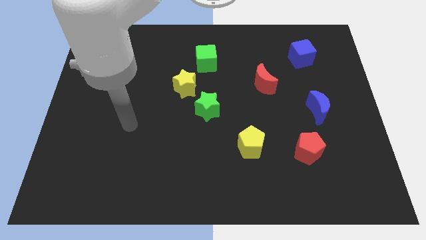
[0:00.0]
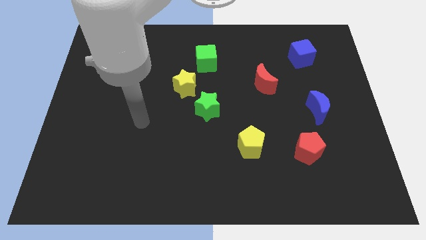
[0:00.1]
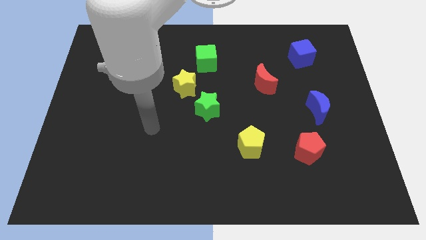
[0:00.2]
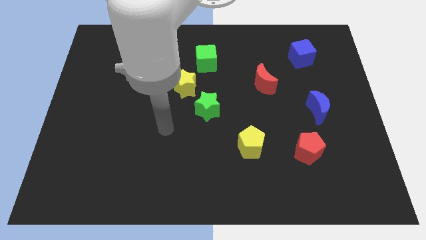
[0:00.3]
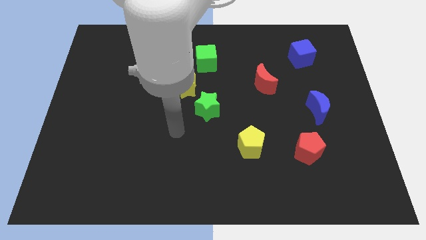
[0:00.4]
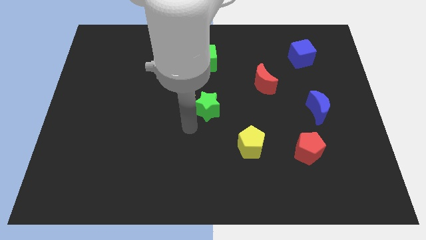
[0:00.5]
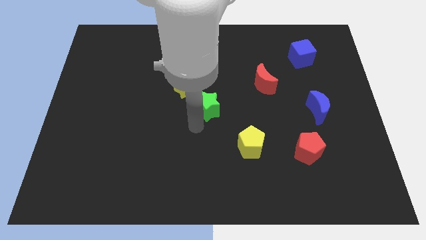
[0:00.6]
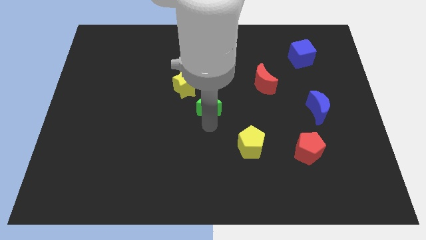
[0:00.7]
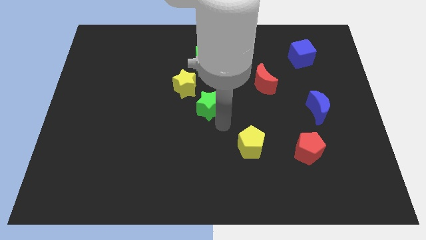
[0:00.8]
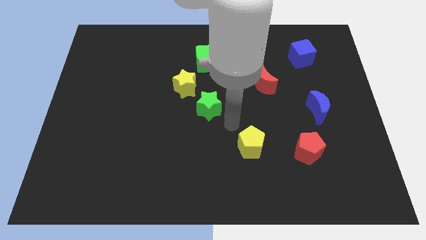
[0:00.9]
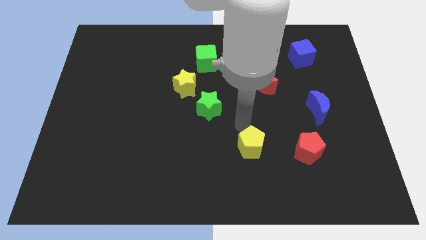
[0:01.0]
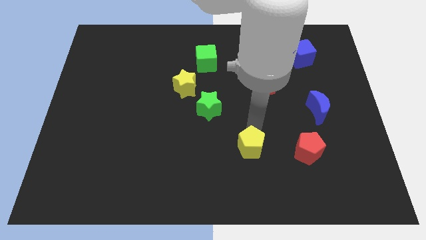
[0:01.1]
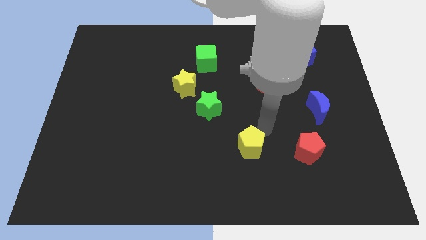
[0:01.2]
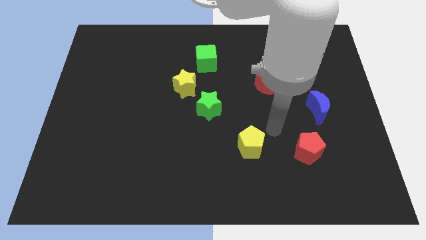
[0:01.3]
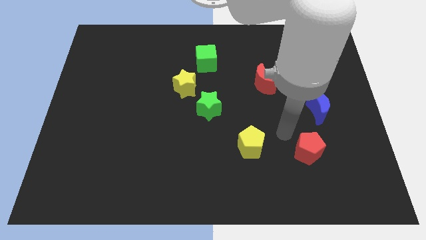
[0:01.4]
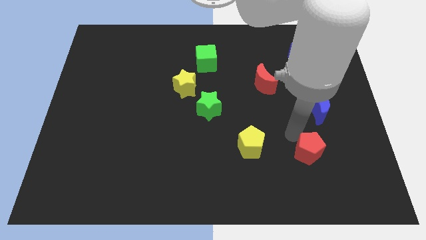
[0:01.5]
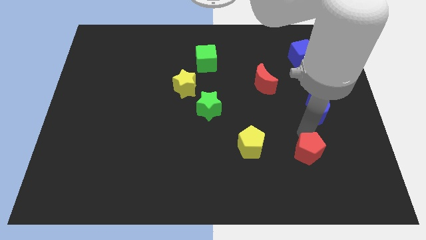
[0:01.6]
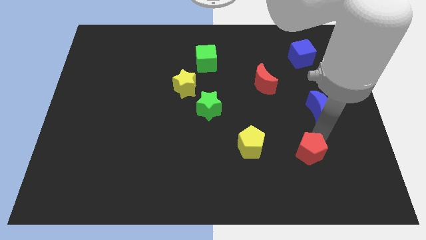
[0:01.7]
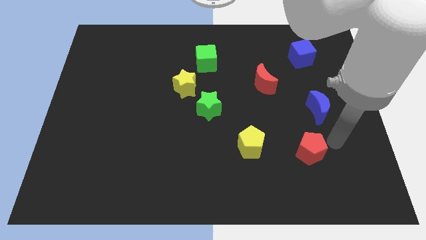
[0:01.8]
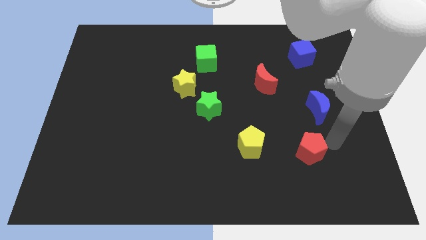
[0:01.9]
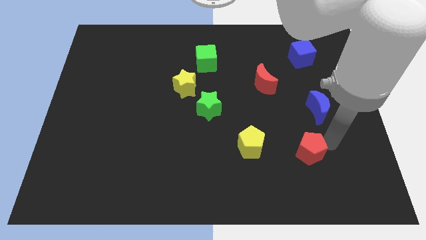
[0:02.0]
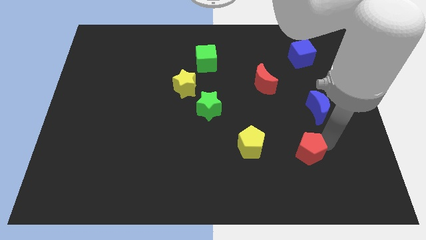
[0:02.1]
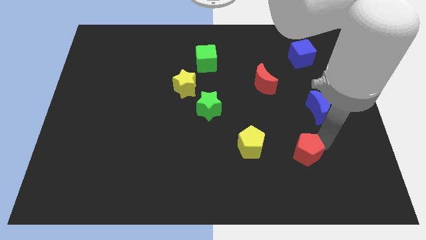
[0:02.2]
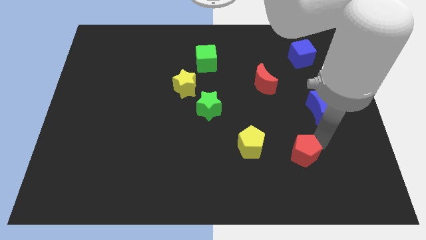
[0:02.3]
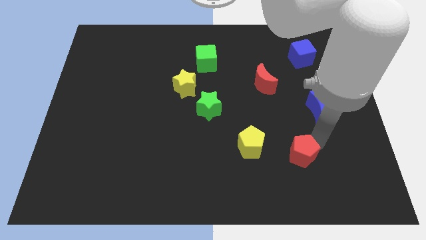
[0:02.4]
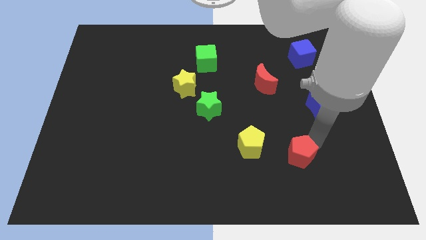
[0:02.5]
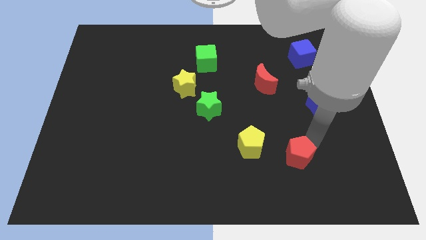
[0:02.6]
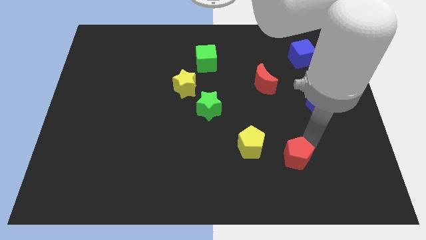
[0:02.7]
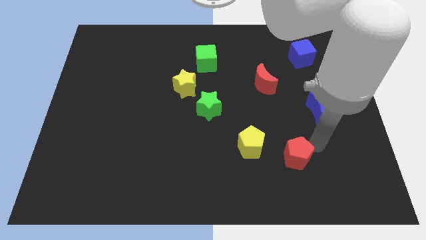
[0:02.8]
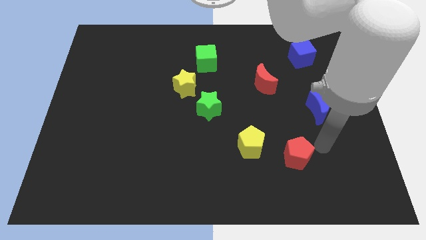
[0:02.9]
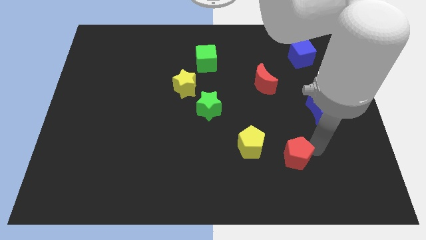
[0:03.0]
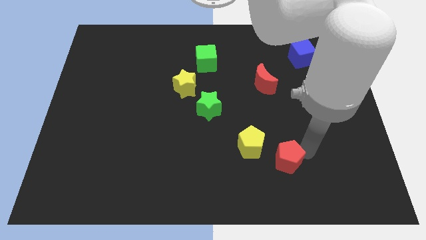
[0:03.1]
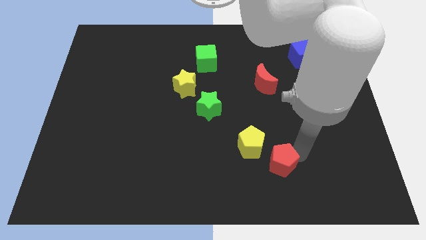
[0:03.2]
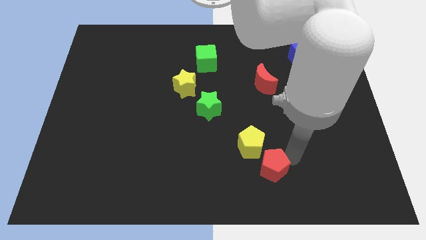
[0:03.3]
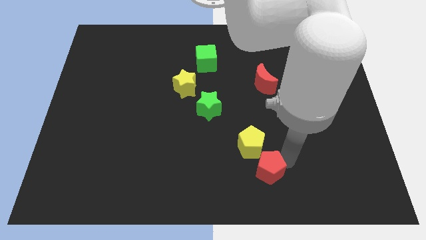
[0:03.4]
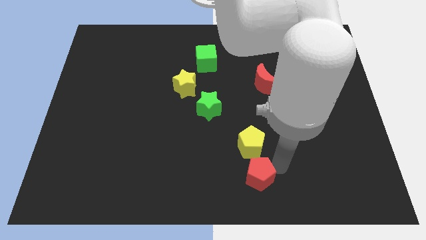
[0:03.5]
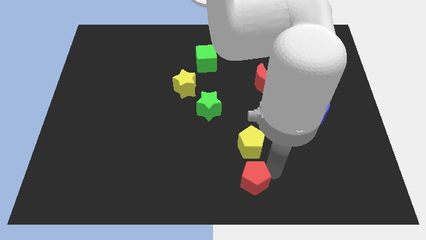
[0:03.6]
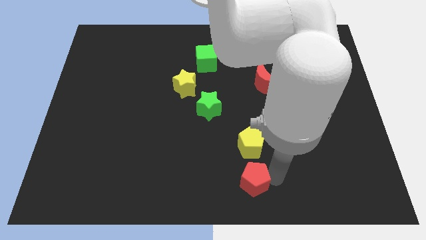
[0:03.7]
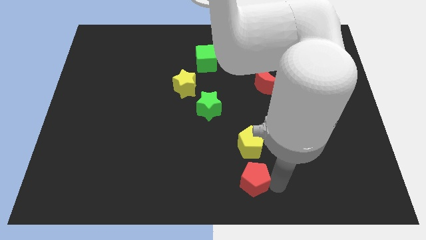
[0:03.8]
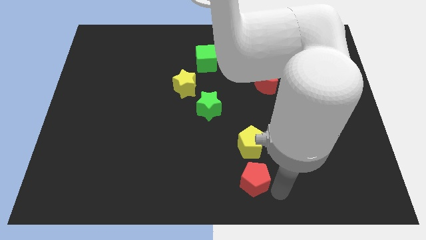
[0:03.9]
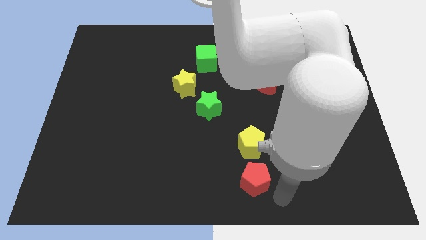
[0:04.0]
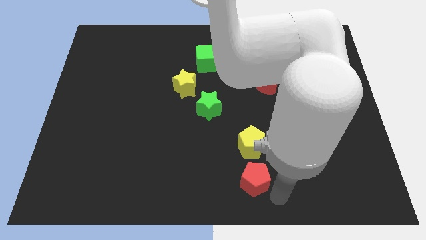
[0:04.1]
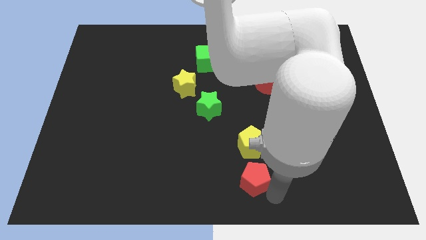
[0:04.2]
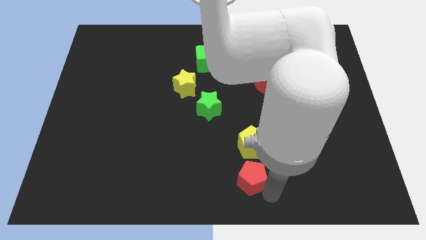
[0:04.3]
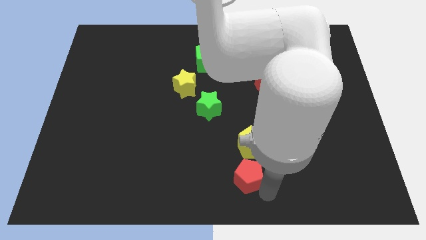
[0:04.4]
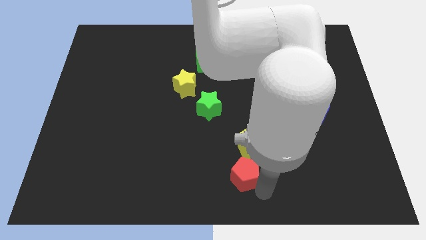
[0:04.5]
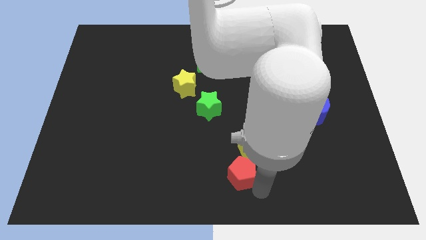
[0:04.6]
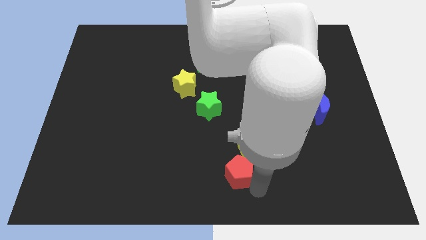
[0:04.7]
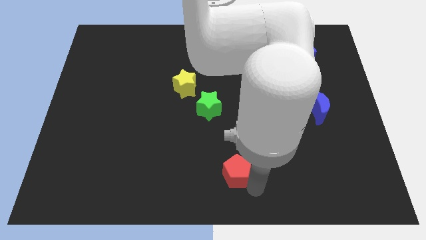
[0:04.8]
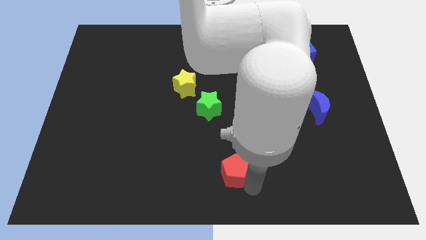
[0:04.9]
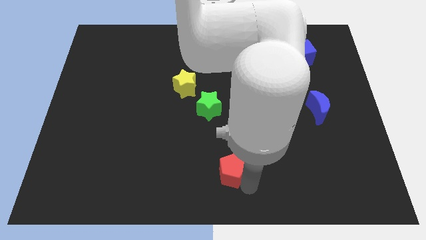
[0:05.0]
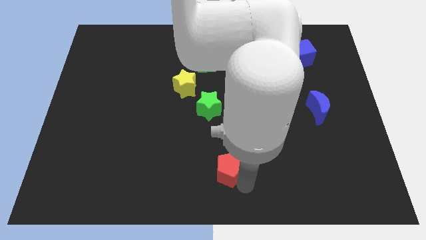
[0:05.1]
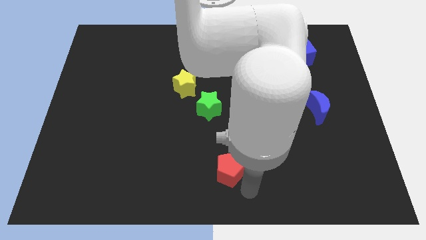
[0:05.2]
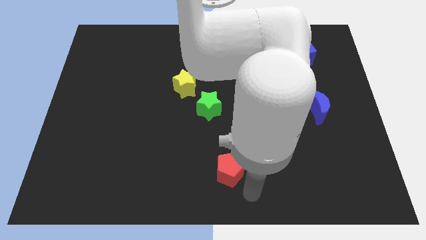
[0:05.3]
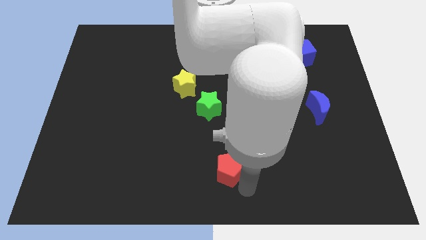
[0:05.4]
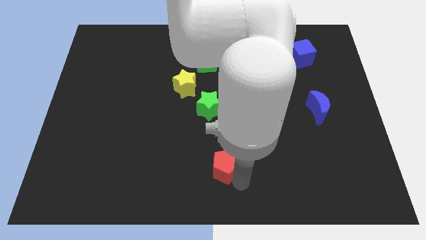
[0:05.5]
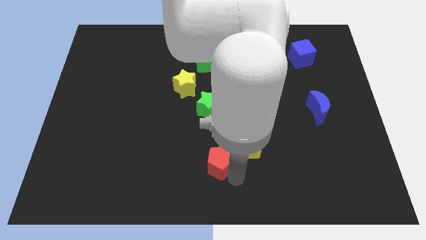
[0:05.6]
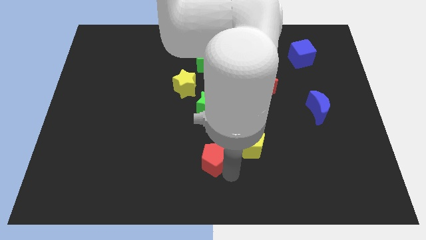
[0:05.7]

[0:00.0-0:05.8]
slide the red pentagon left

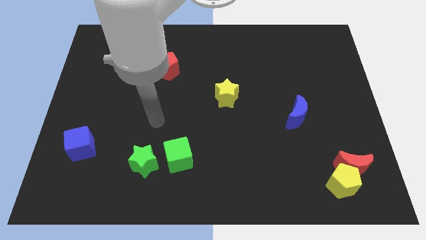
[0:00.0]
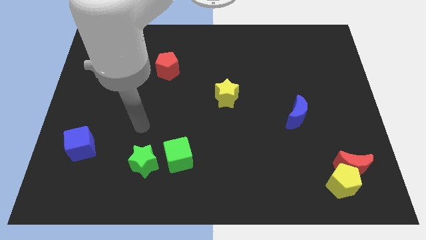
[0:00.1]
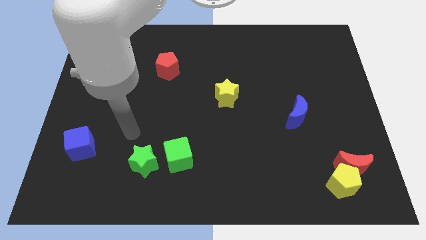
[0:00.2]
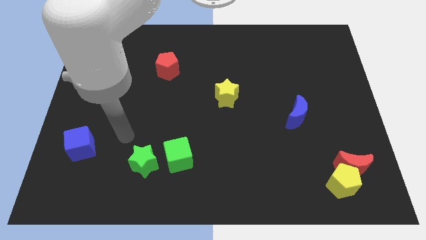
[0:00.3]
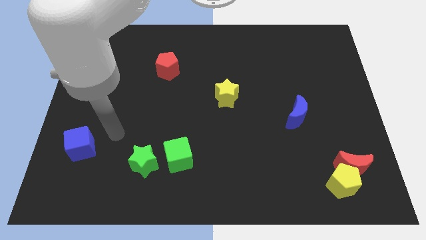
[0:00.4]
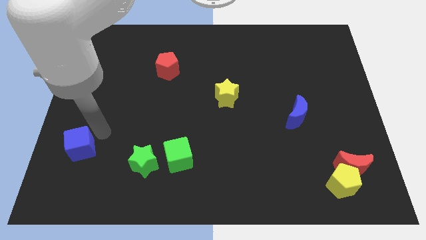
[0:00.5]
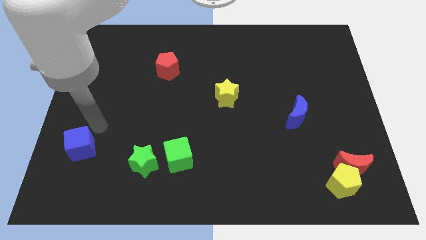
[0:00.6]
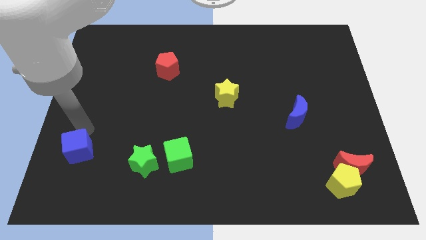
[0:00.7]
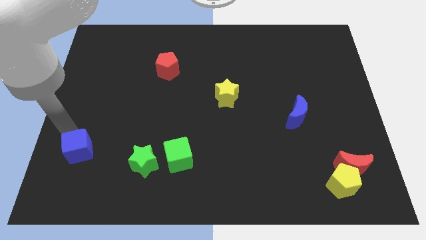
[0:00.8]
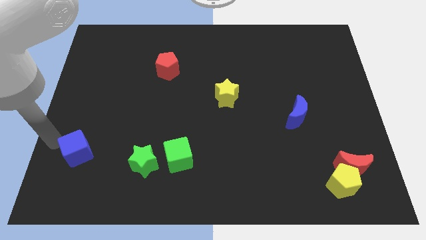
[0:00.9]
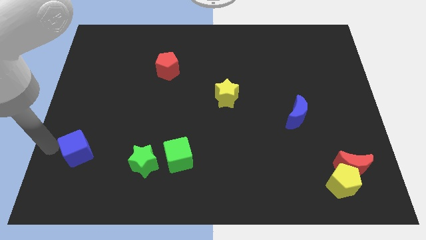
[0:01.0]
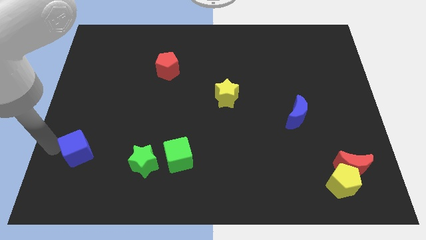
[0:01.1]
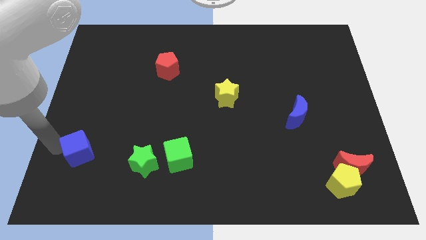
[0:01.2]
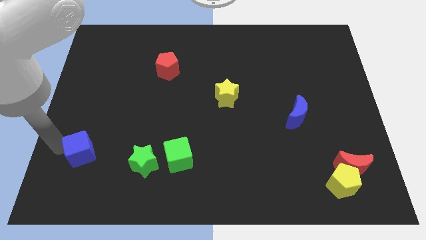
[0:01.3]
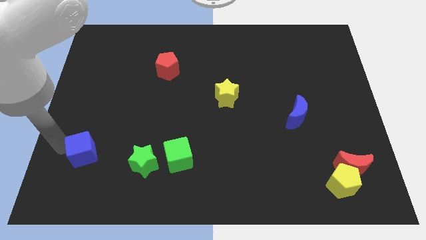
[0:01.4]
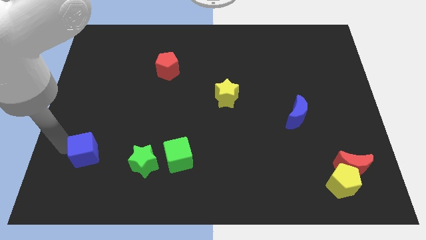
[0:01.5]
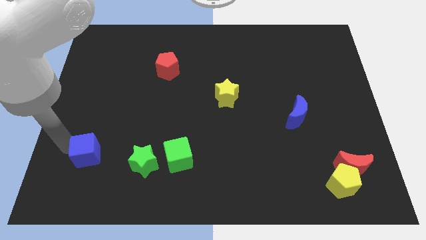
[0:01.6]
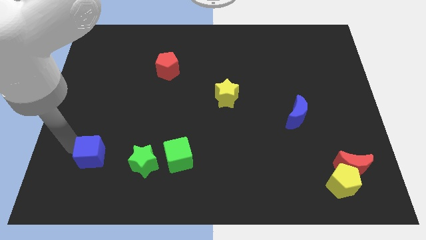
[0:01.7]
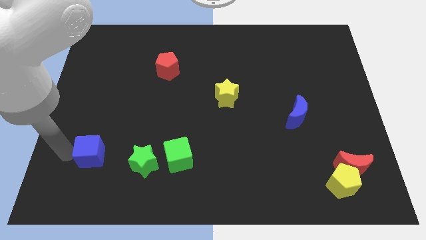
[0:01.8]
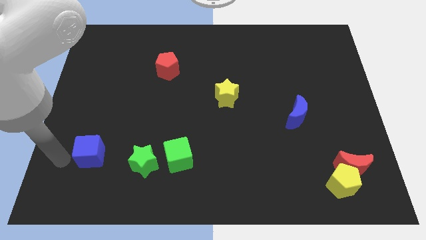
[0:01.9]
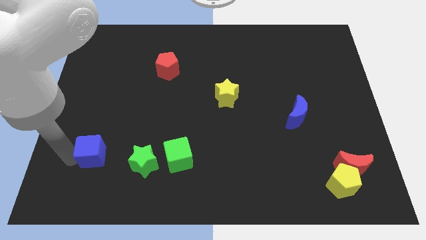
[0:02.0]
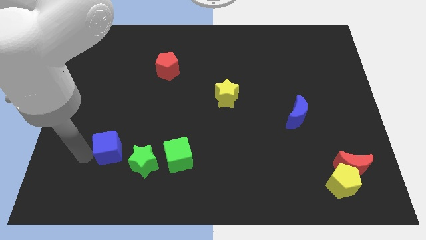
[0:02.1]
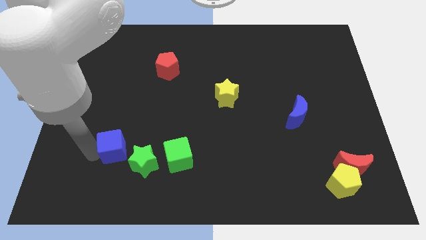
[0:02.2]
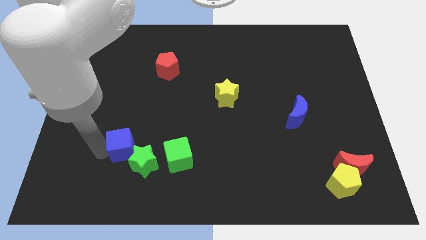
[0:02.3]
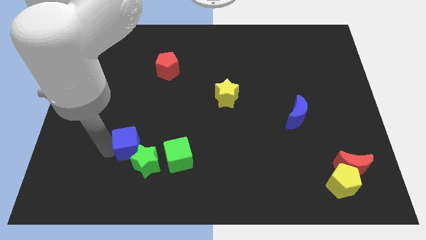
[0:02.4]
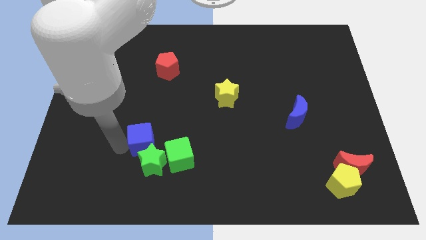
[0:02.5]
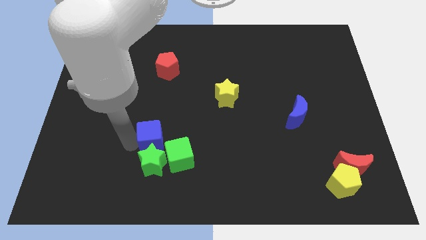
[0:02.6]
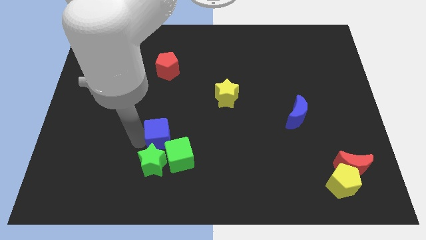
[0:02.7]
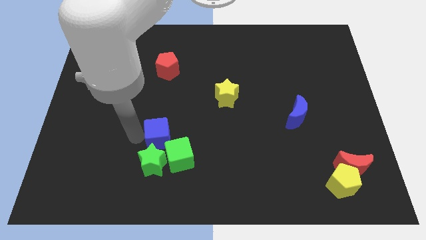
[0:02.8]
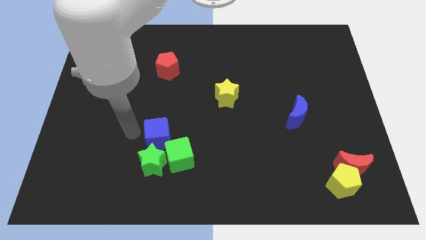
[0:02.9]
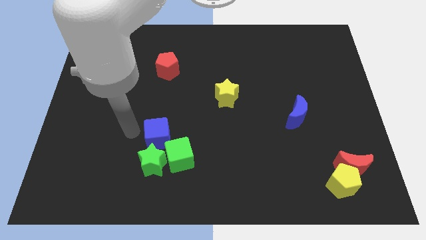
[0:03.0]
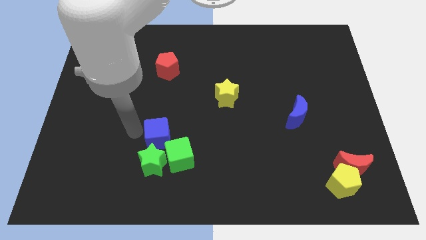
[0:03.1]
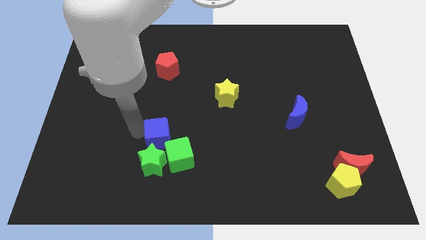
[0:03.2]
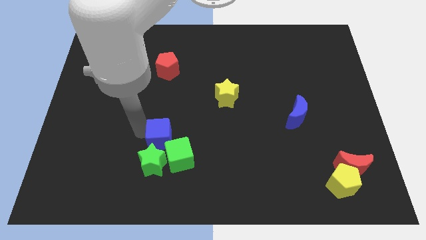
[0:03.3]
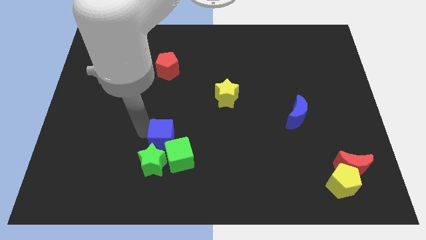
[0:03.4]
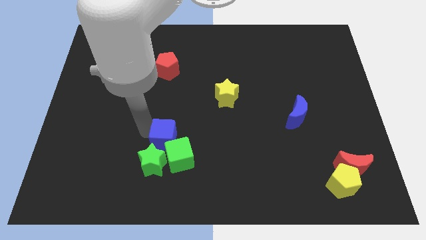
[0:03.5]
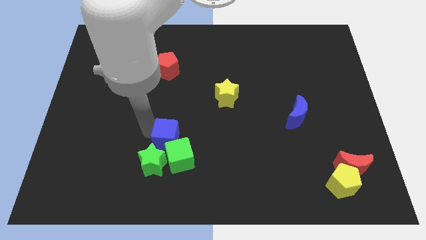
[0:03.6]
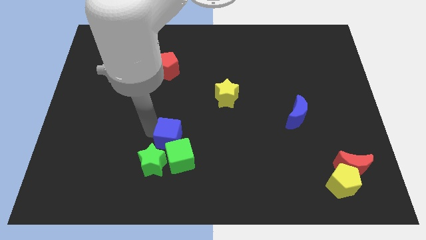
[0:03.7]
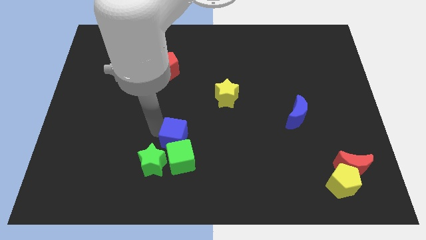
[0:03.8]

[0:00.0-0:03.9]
move the blue cube right
